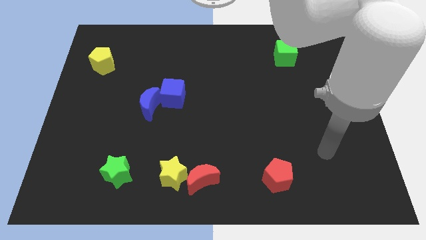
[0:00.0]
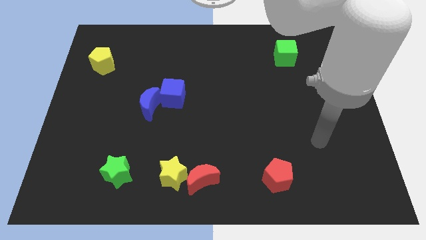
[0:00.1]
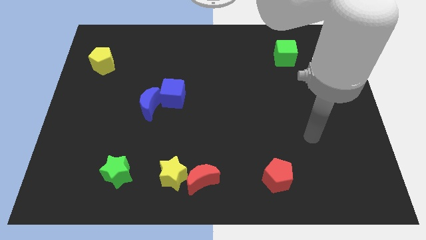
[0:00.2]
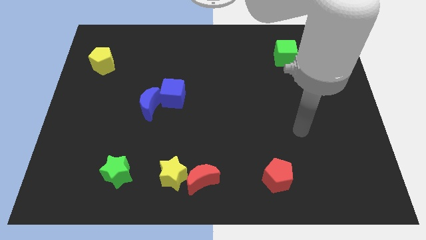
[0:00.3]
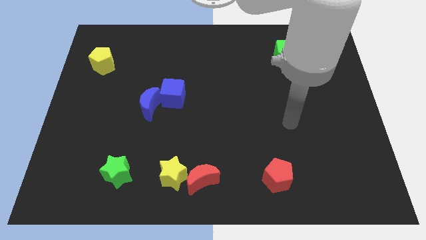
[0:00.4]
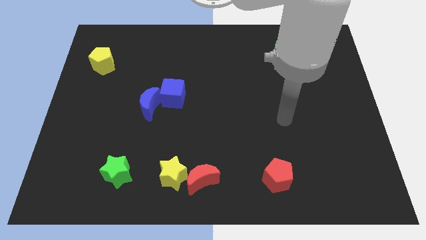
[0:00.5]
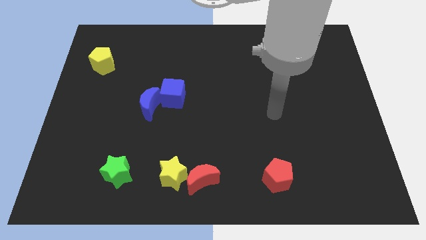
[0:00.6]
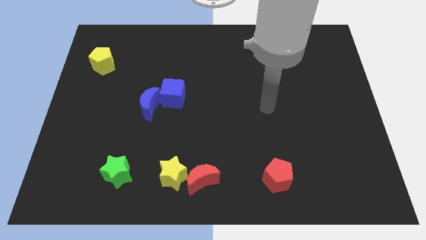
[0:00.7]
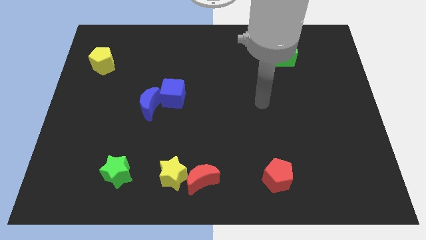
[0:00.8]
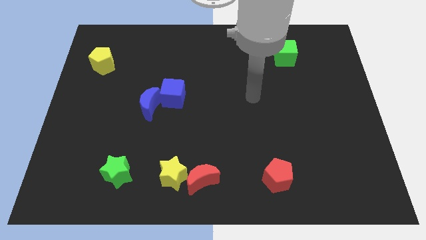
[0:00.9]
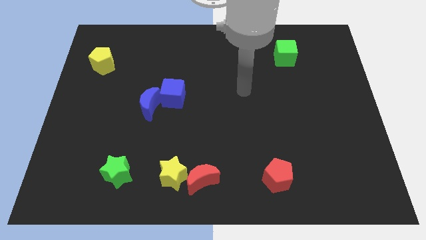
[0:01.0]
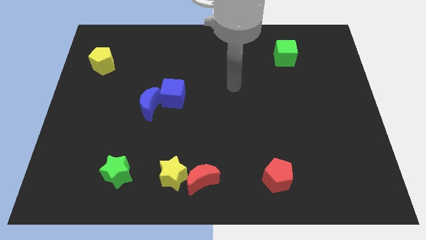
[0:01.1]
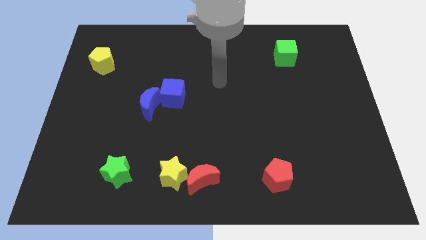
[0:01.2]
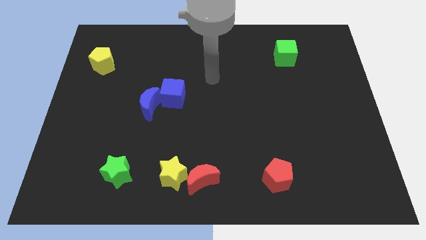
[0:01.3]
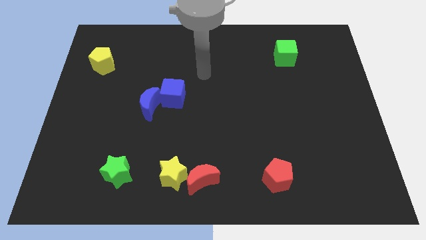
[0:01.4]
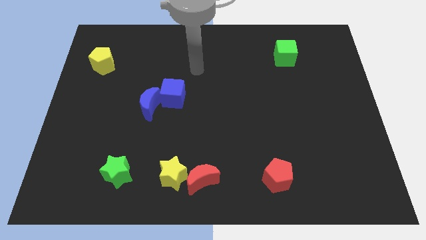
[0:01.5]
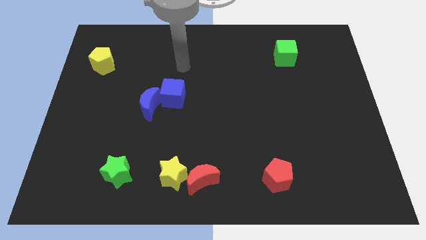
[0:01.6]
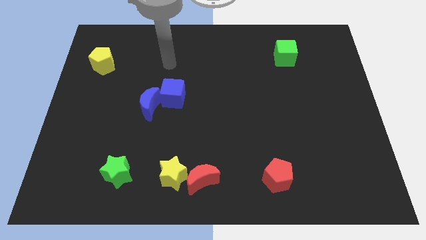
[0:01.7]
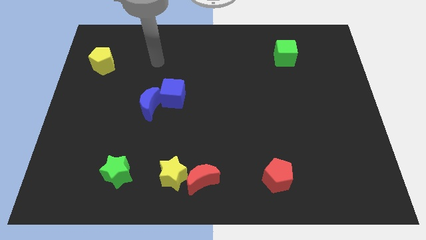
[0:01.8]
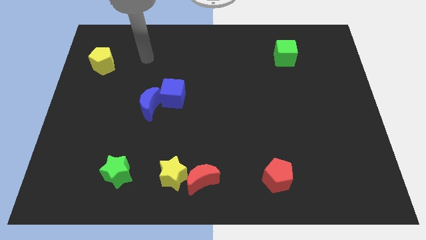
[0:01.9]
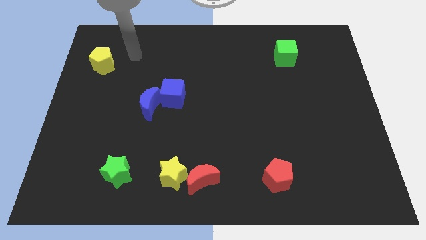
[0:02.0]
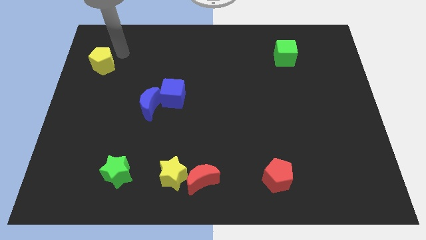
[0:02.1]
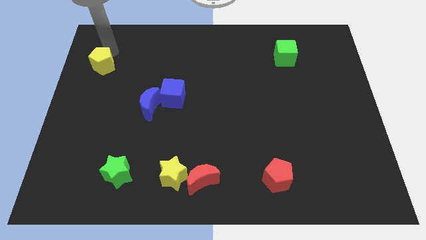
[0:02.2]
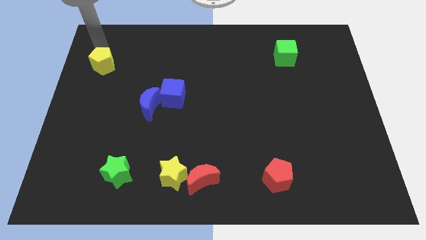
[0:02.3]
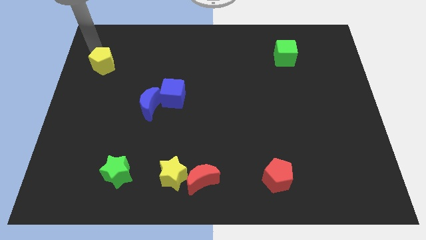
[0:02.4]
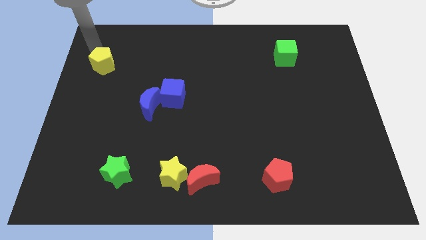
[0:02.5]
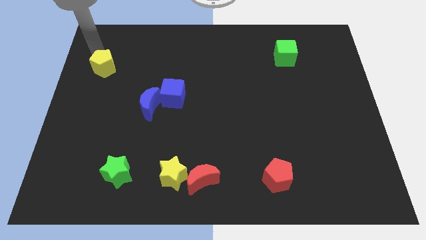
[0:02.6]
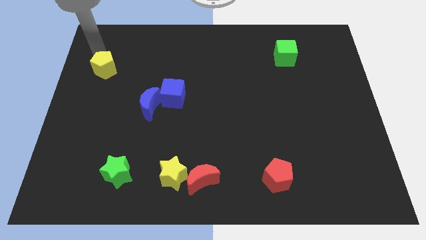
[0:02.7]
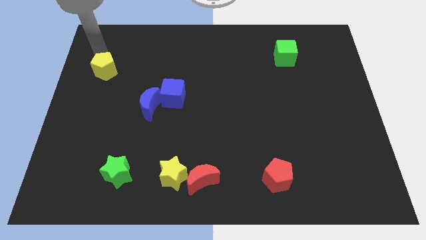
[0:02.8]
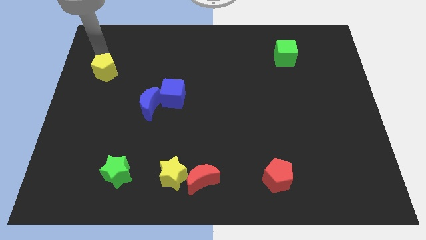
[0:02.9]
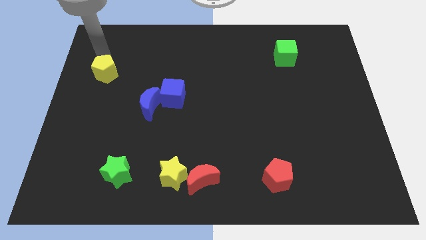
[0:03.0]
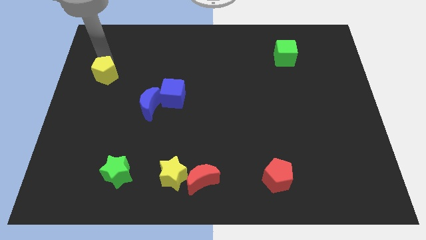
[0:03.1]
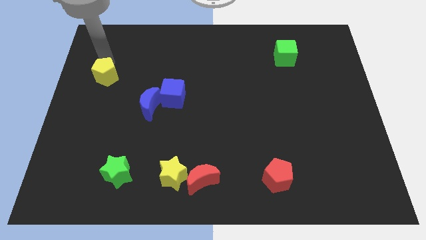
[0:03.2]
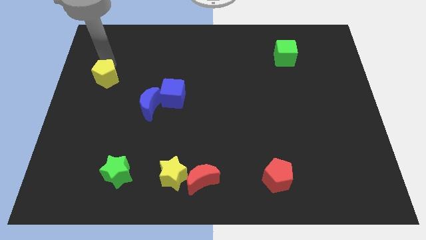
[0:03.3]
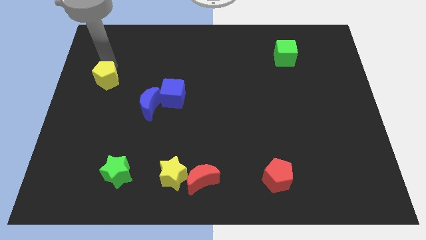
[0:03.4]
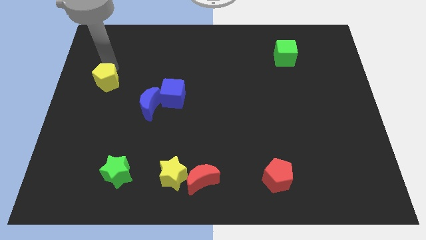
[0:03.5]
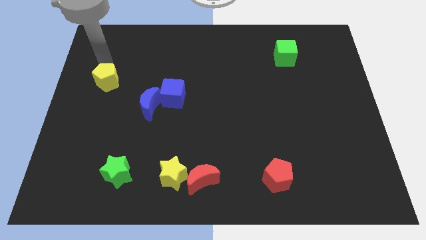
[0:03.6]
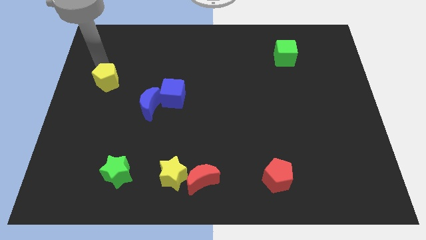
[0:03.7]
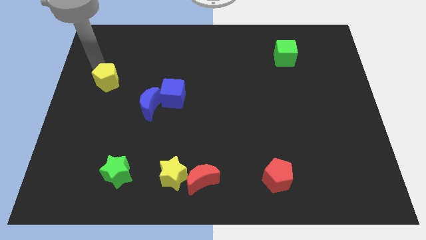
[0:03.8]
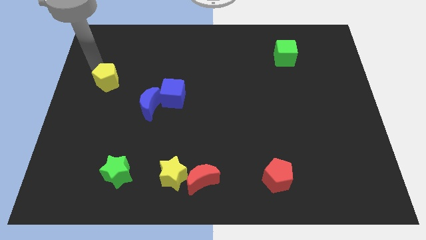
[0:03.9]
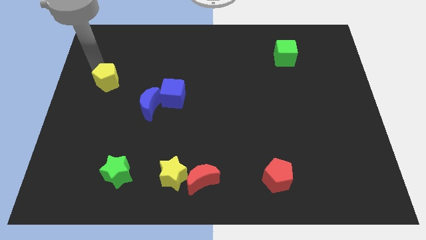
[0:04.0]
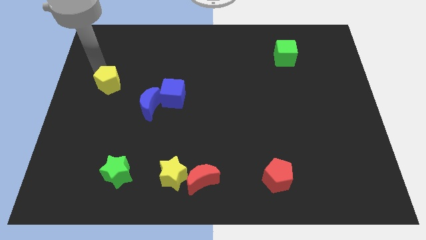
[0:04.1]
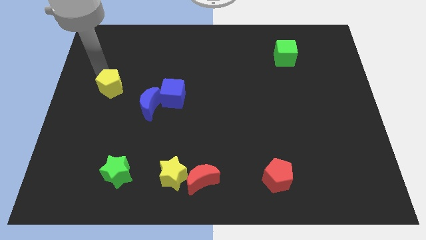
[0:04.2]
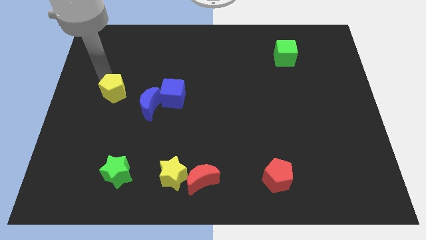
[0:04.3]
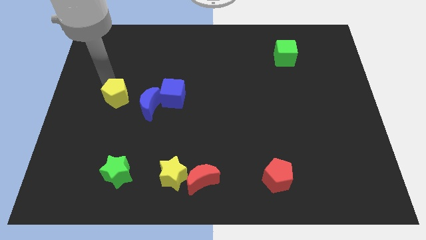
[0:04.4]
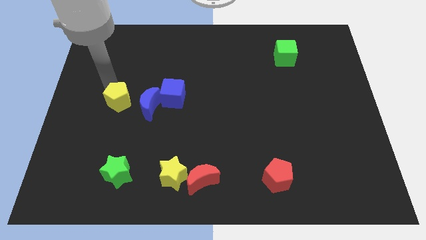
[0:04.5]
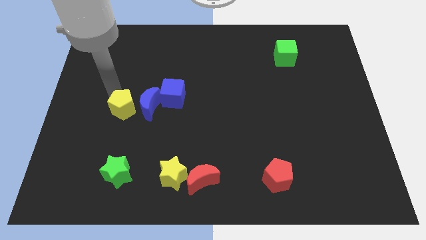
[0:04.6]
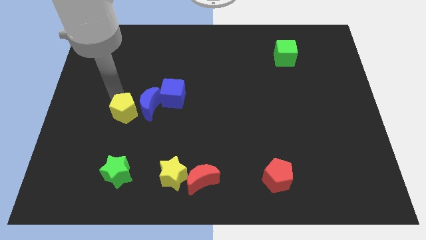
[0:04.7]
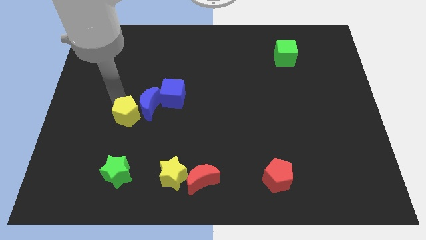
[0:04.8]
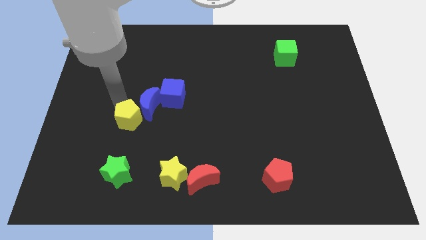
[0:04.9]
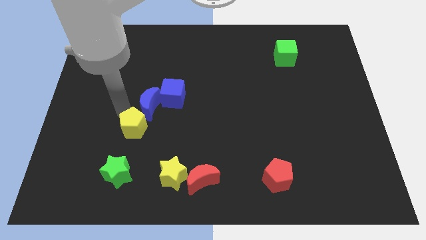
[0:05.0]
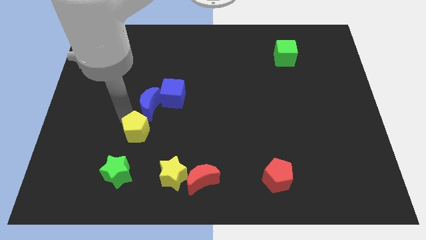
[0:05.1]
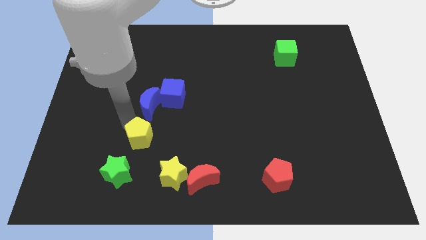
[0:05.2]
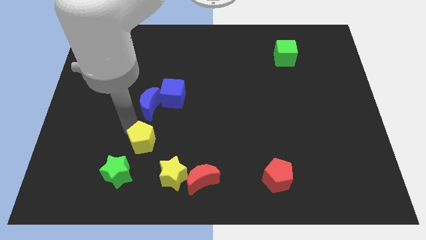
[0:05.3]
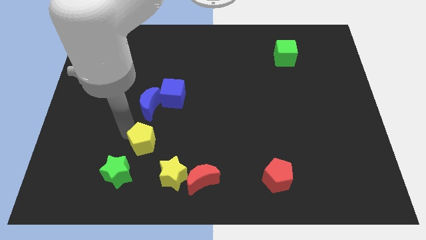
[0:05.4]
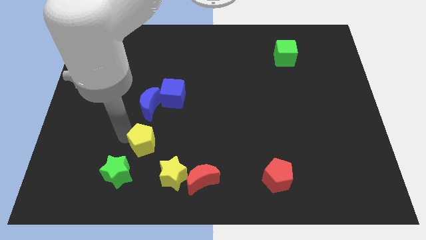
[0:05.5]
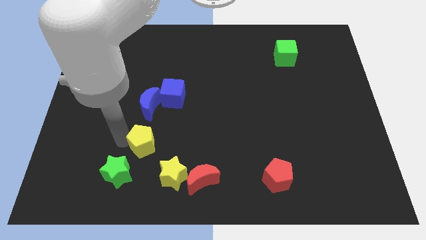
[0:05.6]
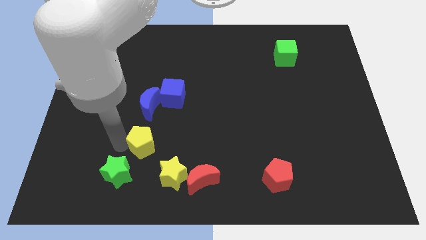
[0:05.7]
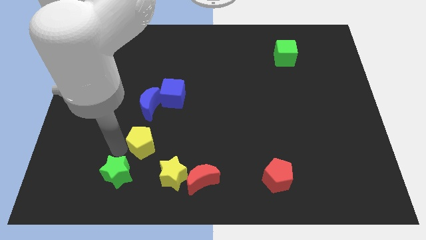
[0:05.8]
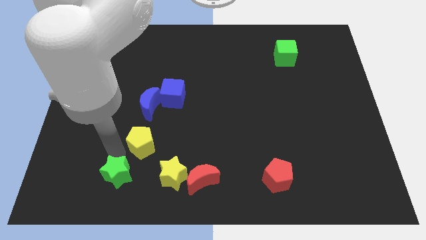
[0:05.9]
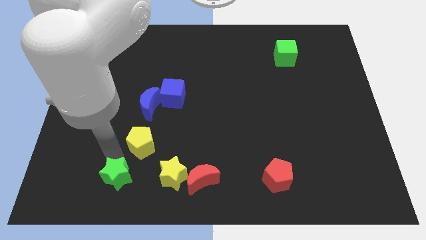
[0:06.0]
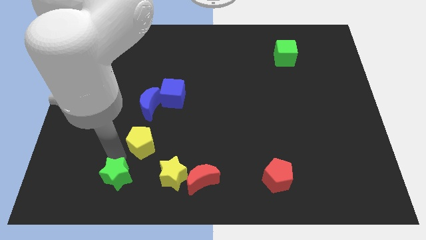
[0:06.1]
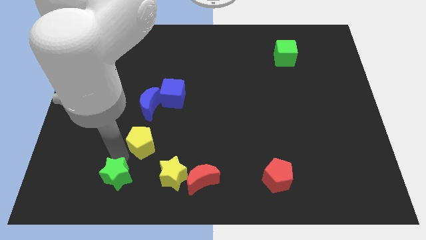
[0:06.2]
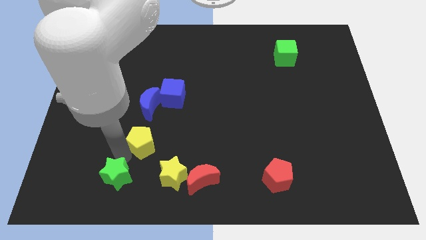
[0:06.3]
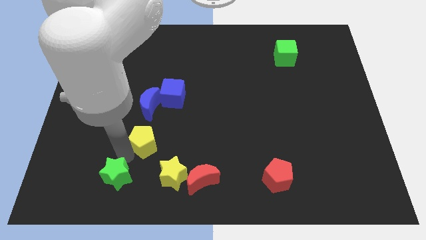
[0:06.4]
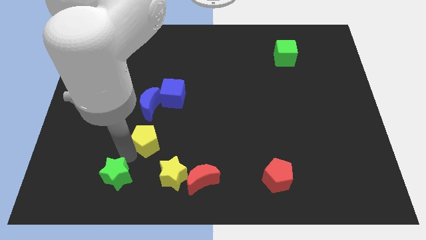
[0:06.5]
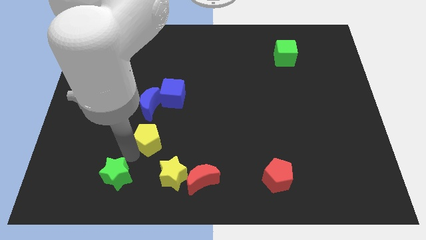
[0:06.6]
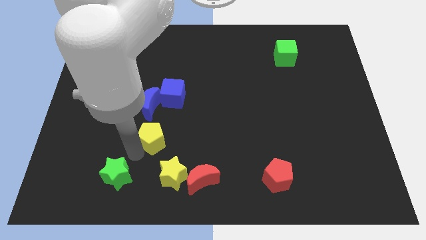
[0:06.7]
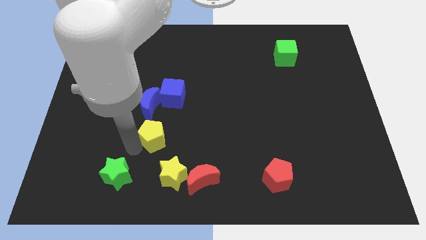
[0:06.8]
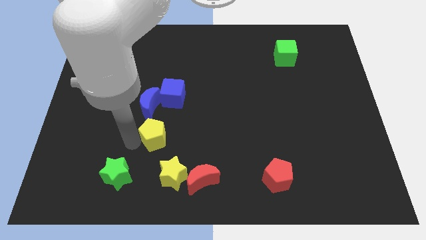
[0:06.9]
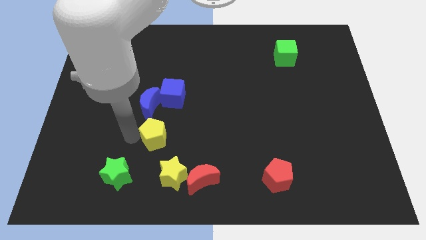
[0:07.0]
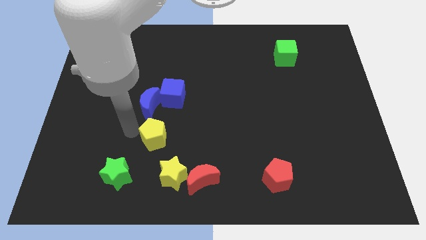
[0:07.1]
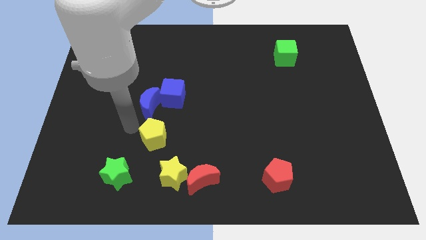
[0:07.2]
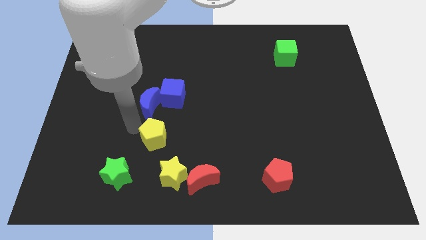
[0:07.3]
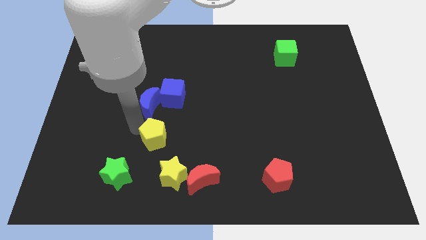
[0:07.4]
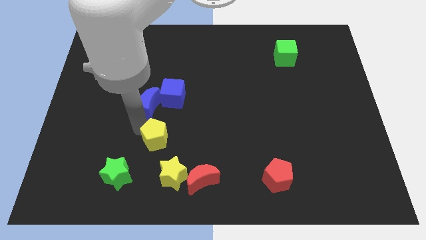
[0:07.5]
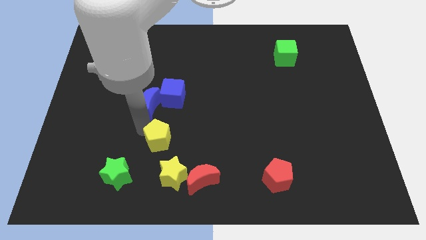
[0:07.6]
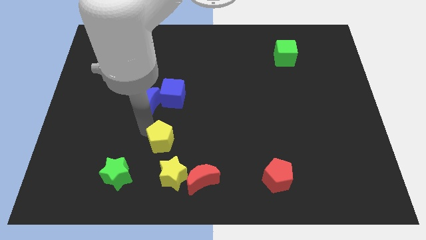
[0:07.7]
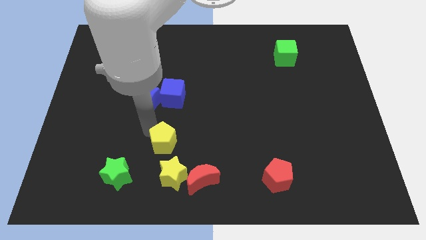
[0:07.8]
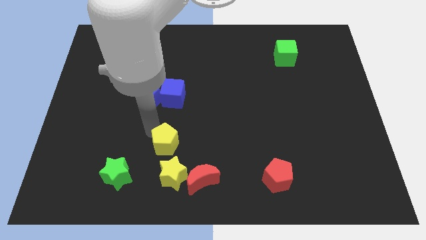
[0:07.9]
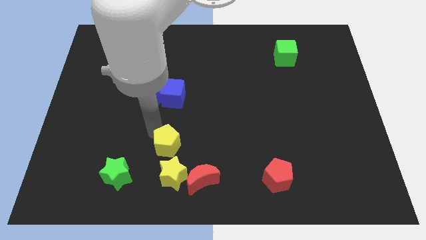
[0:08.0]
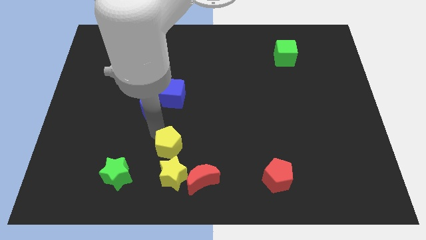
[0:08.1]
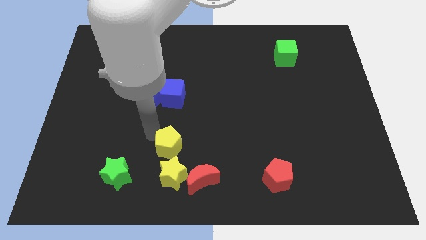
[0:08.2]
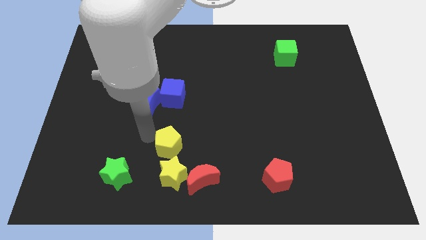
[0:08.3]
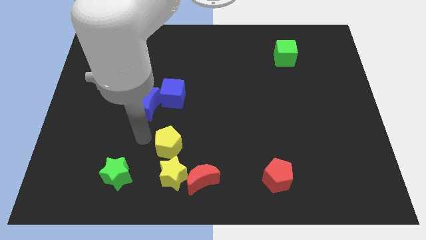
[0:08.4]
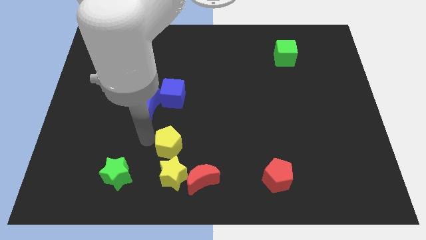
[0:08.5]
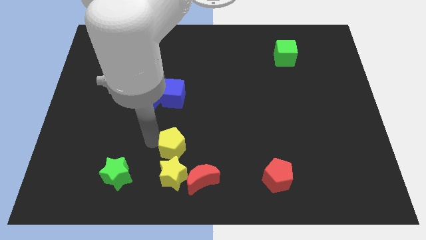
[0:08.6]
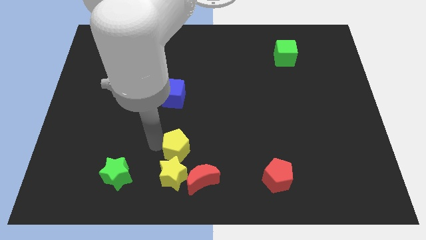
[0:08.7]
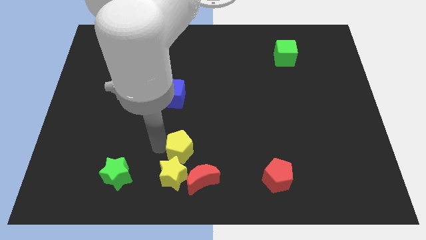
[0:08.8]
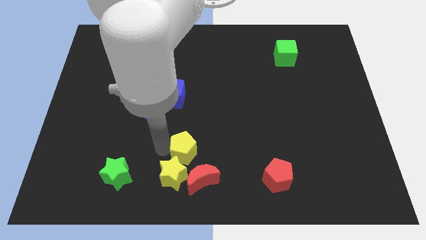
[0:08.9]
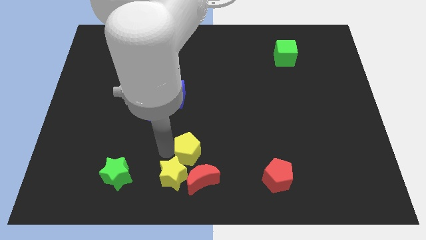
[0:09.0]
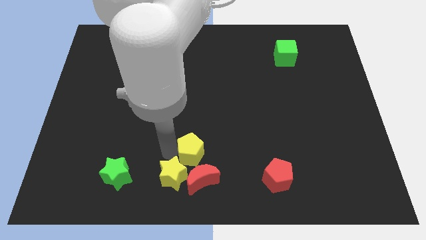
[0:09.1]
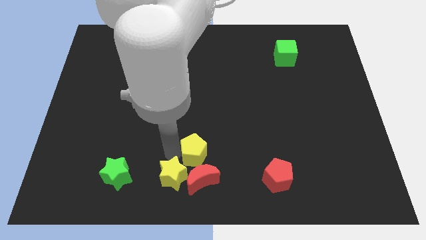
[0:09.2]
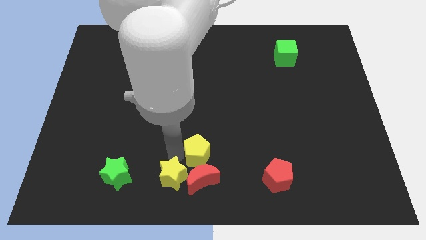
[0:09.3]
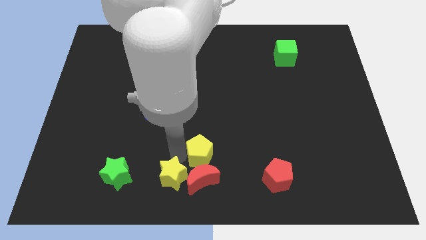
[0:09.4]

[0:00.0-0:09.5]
move the yellow pentagon just right of the yellow star
